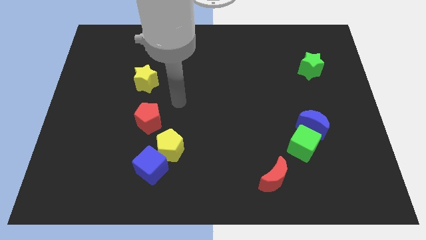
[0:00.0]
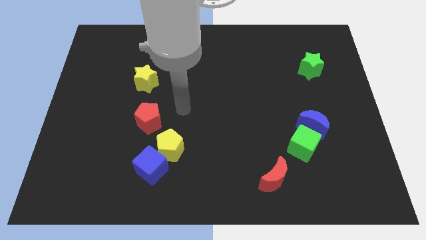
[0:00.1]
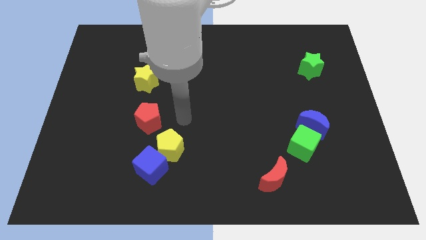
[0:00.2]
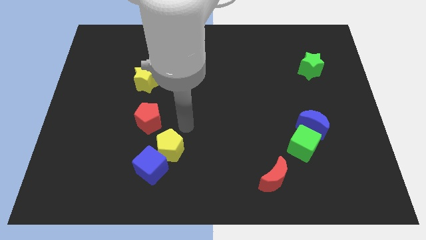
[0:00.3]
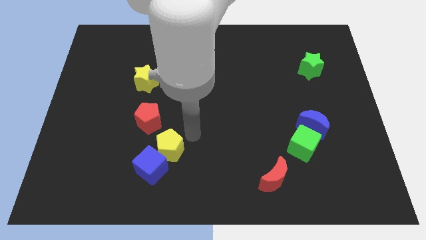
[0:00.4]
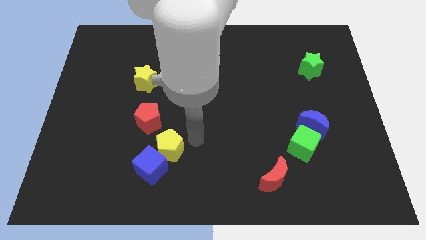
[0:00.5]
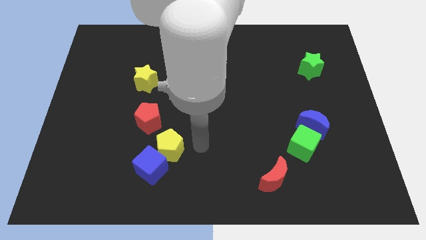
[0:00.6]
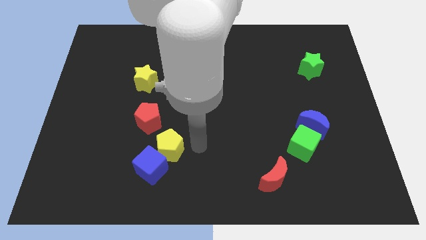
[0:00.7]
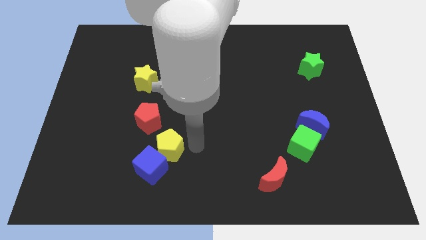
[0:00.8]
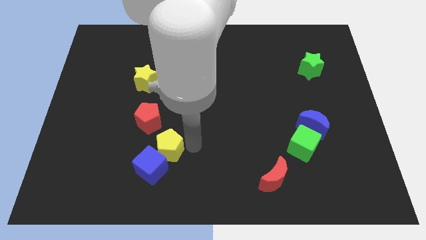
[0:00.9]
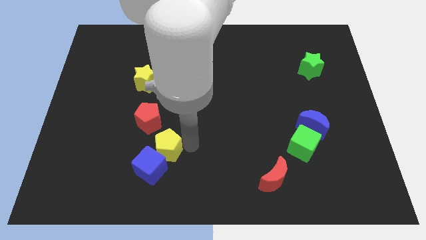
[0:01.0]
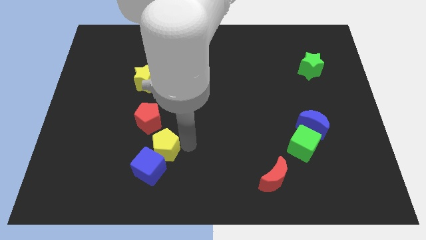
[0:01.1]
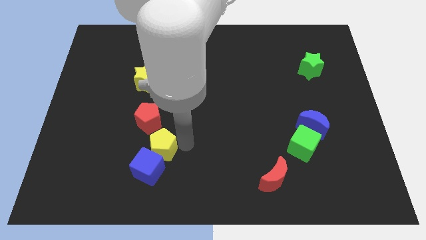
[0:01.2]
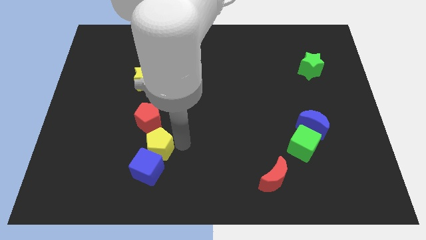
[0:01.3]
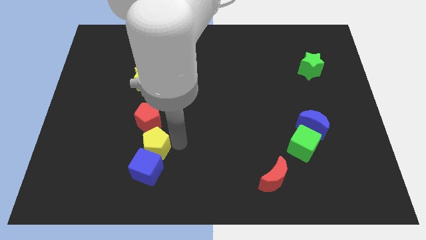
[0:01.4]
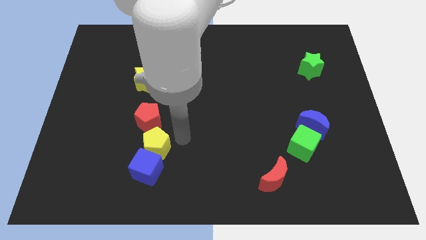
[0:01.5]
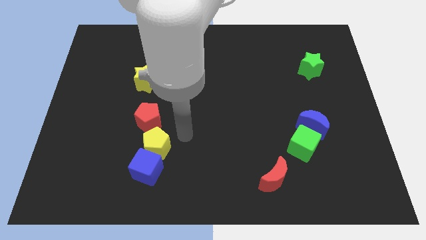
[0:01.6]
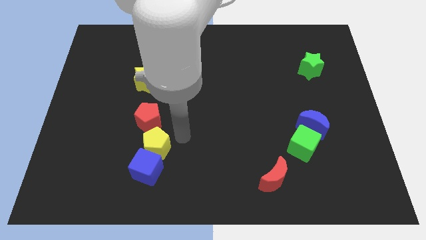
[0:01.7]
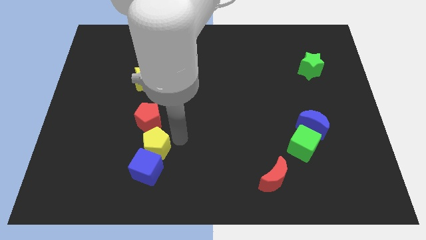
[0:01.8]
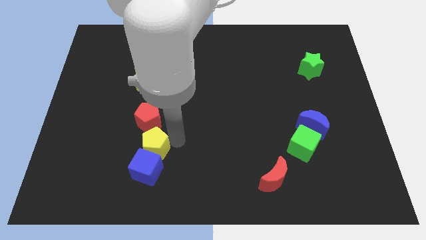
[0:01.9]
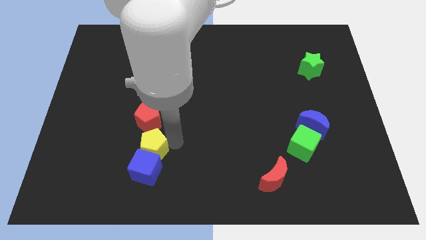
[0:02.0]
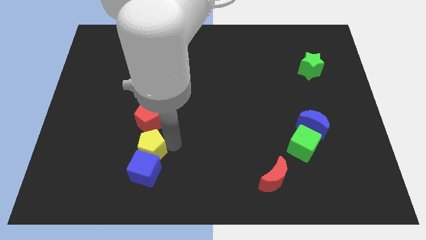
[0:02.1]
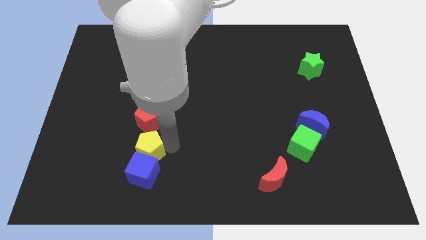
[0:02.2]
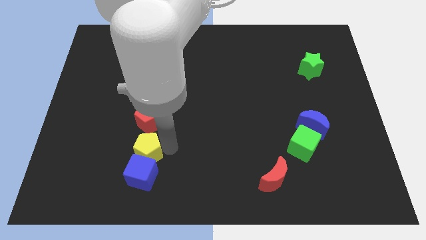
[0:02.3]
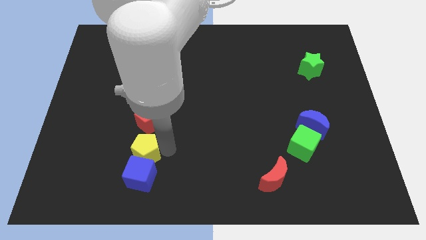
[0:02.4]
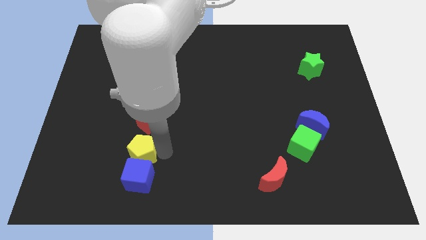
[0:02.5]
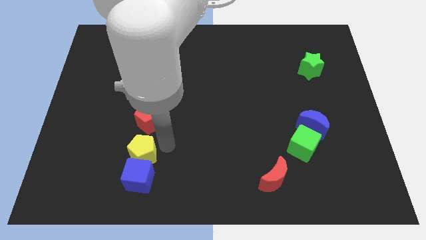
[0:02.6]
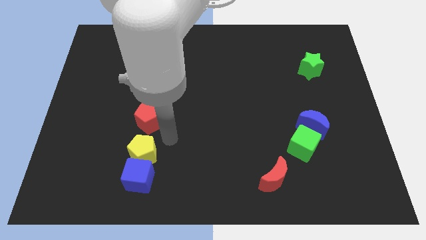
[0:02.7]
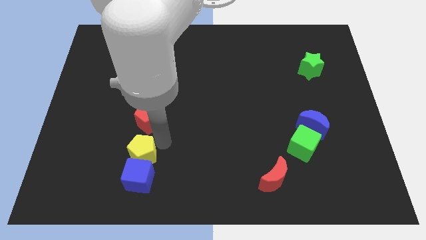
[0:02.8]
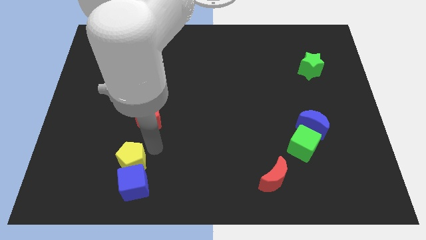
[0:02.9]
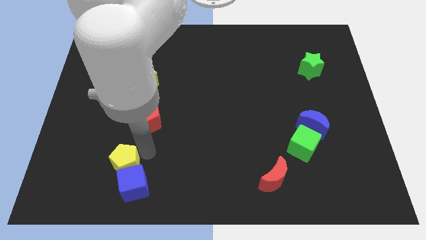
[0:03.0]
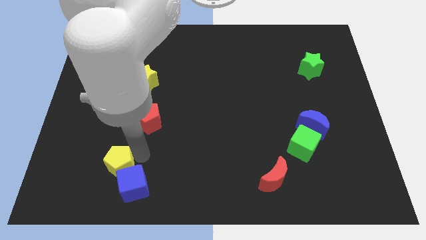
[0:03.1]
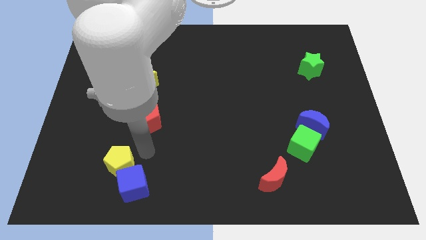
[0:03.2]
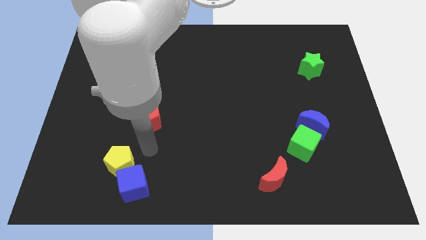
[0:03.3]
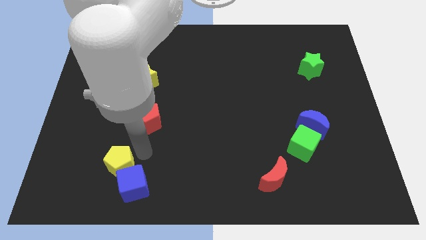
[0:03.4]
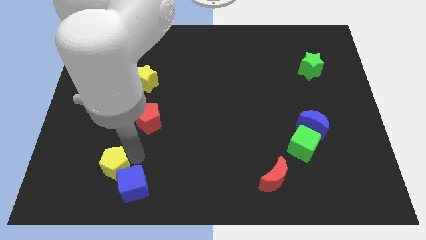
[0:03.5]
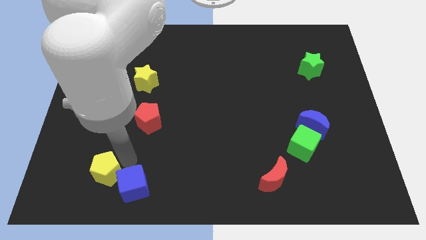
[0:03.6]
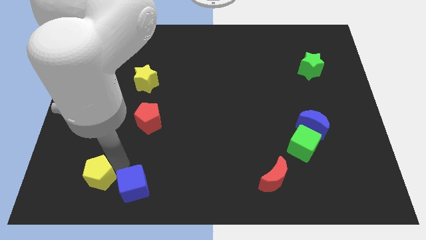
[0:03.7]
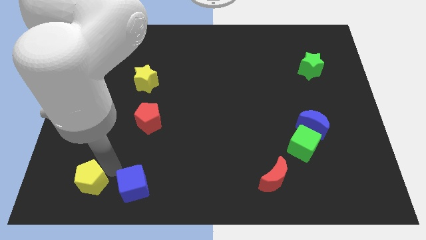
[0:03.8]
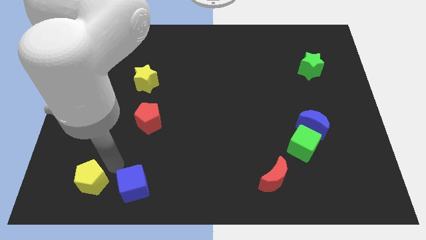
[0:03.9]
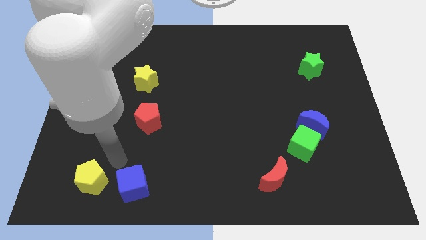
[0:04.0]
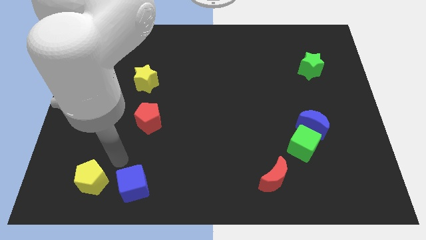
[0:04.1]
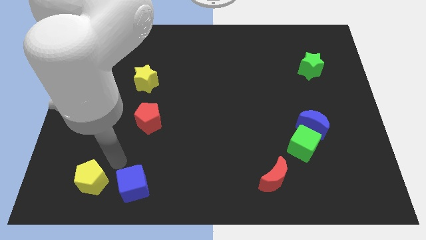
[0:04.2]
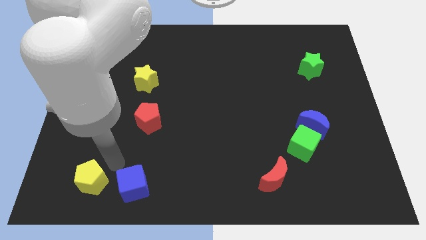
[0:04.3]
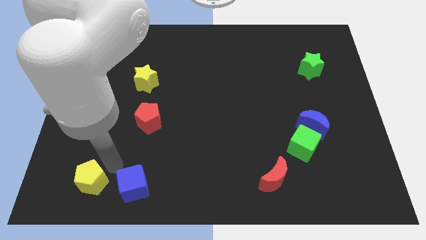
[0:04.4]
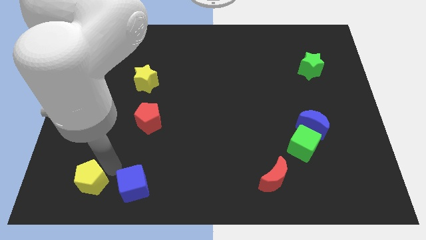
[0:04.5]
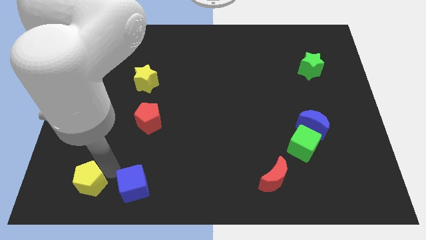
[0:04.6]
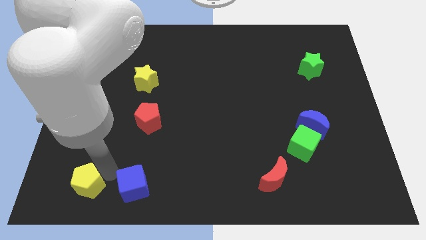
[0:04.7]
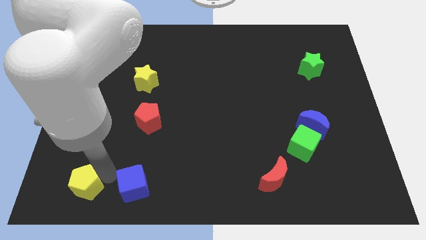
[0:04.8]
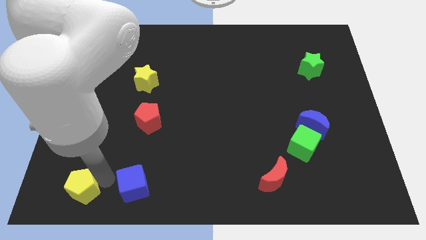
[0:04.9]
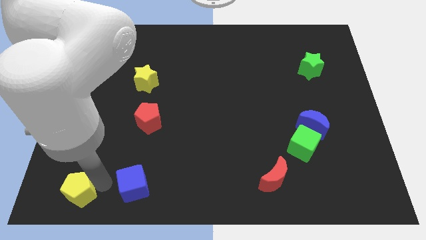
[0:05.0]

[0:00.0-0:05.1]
move the yellow pentagon to the lower left corner

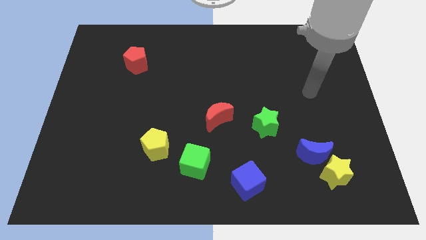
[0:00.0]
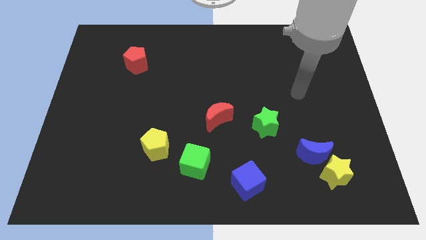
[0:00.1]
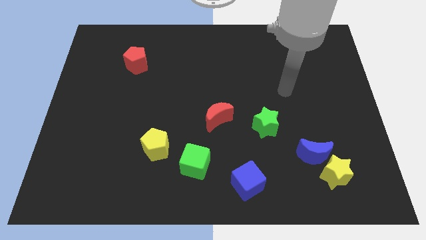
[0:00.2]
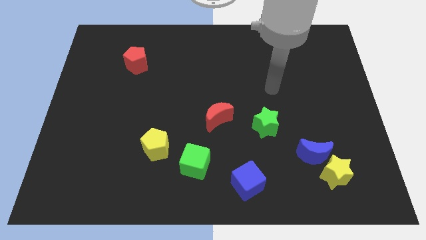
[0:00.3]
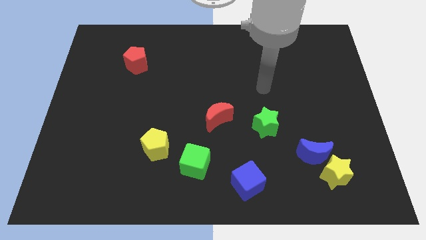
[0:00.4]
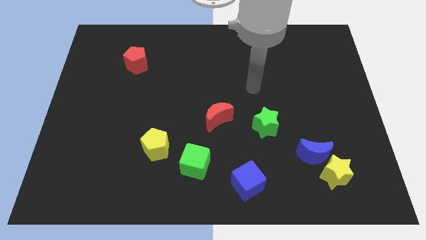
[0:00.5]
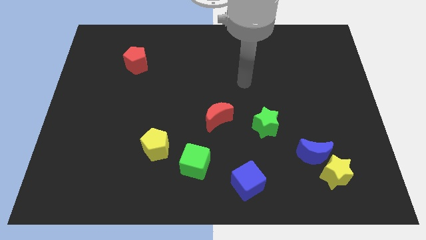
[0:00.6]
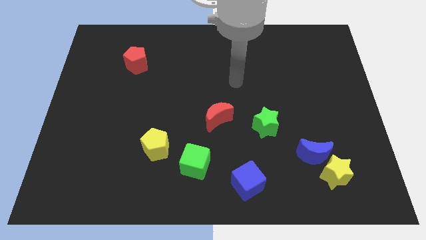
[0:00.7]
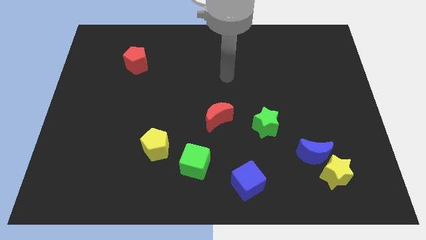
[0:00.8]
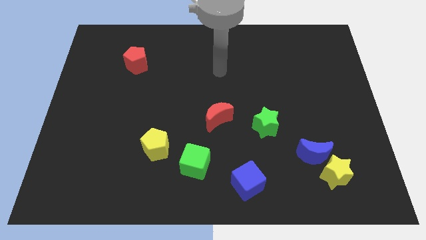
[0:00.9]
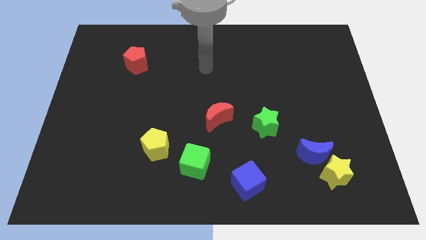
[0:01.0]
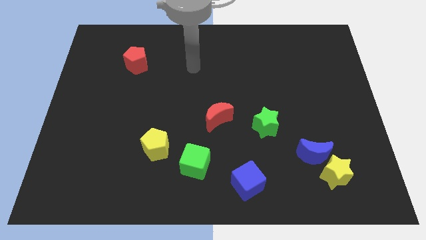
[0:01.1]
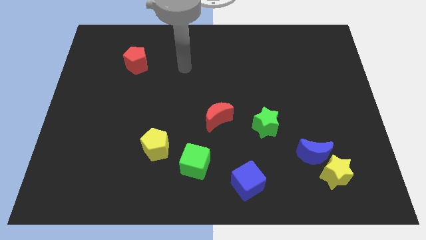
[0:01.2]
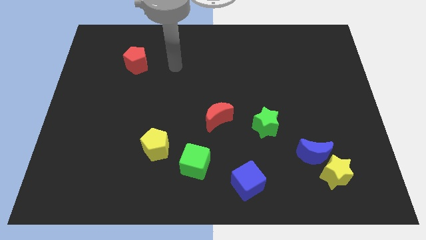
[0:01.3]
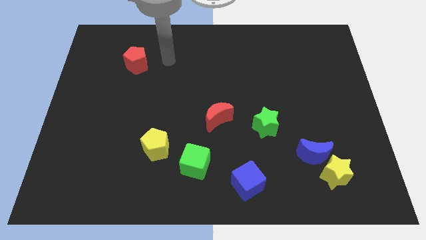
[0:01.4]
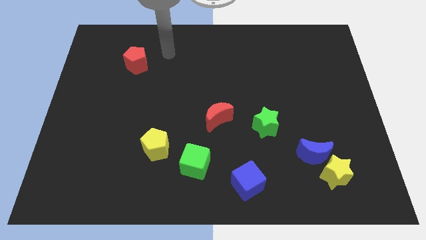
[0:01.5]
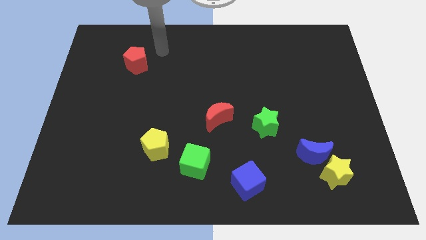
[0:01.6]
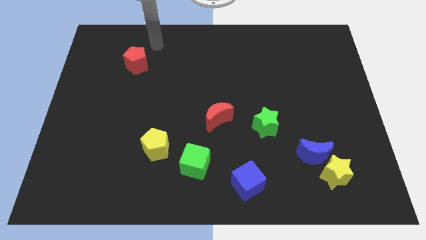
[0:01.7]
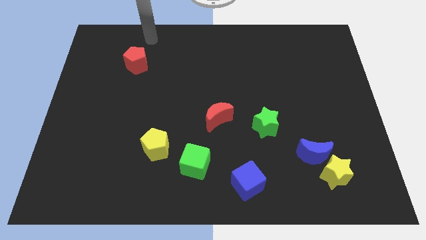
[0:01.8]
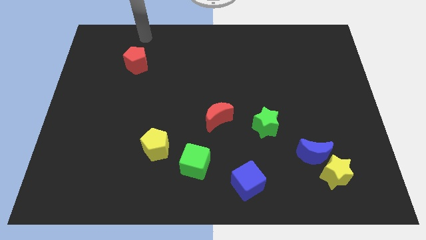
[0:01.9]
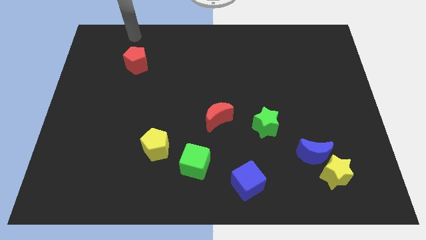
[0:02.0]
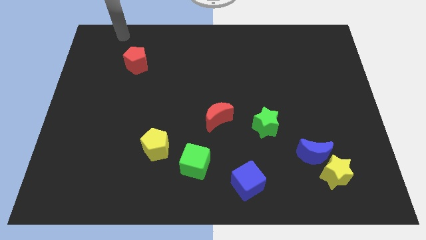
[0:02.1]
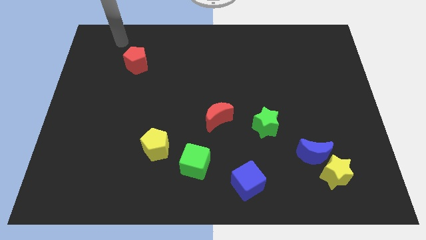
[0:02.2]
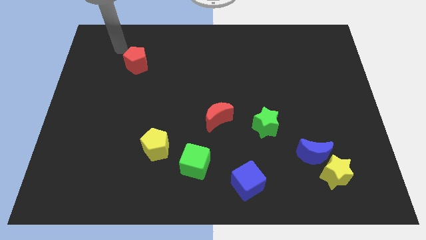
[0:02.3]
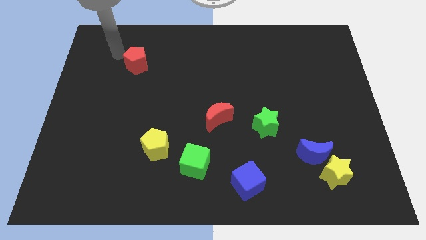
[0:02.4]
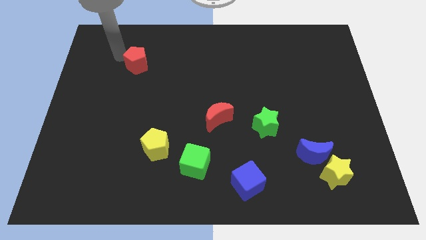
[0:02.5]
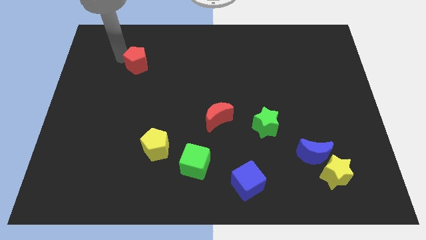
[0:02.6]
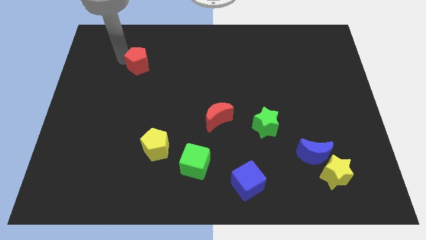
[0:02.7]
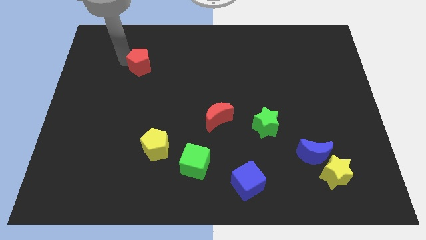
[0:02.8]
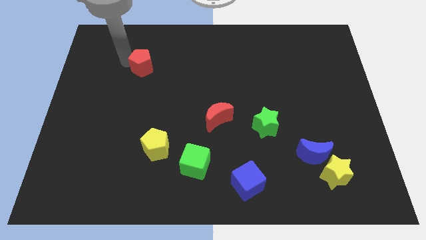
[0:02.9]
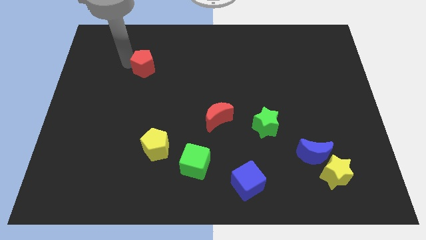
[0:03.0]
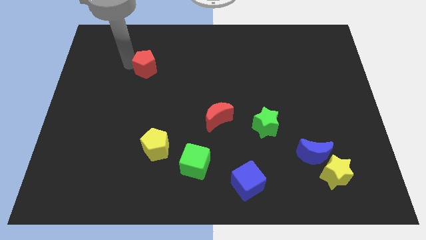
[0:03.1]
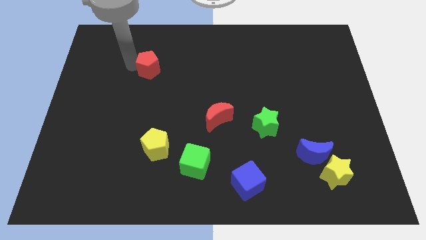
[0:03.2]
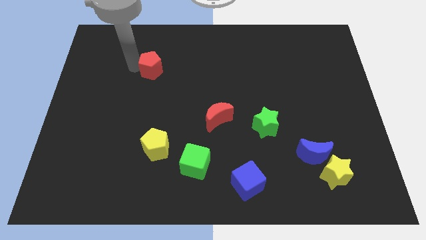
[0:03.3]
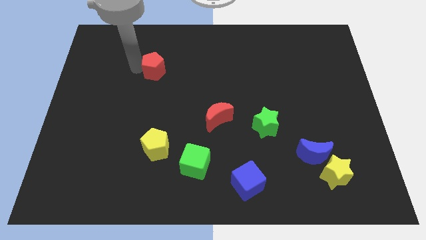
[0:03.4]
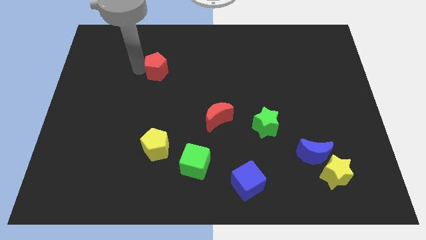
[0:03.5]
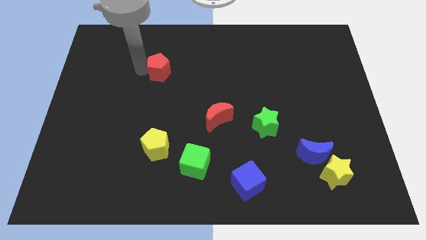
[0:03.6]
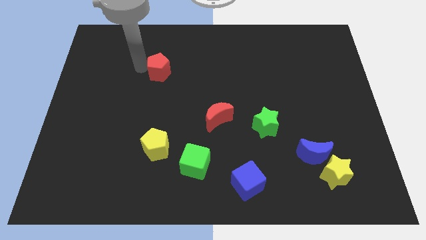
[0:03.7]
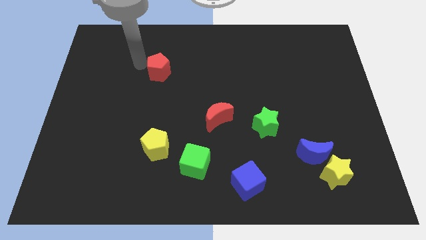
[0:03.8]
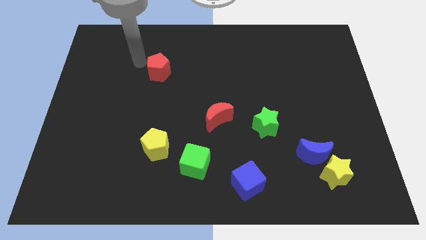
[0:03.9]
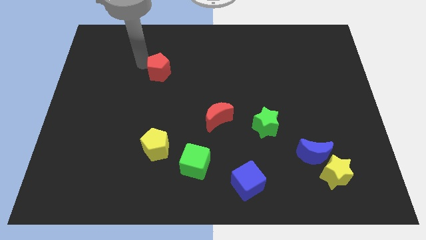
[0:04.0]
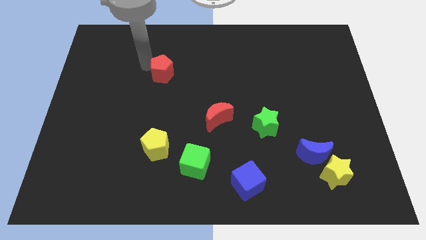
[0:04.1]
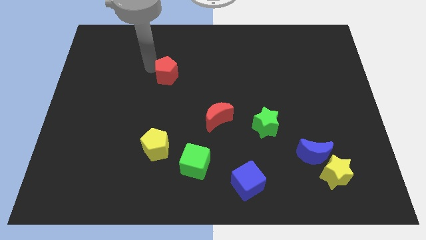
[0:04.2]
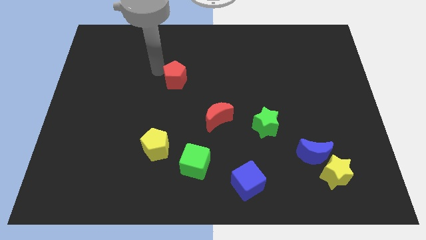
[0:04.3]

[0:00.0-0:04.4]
push the red pentagon to the middle of the board
